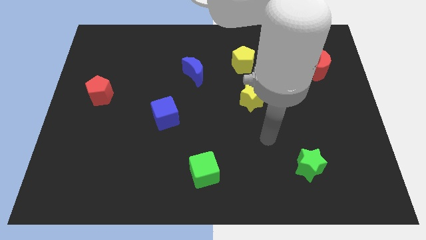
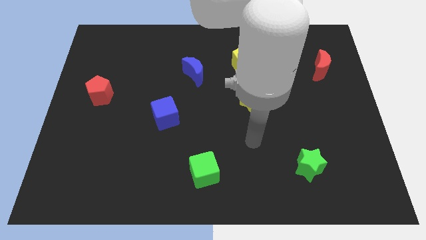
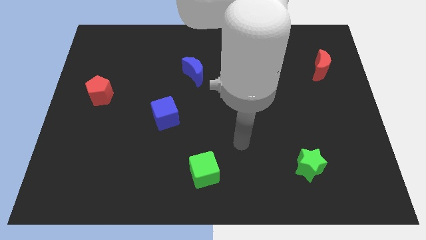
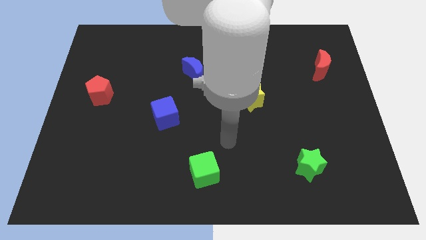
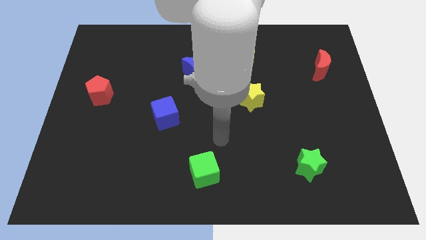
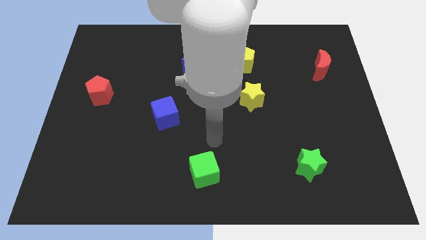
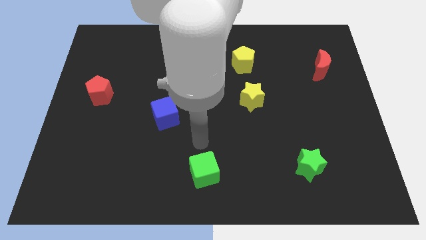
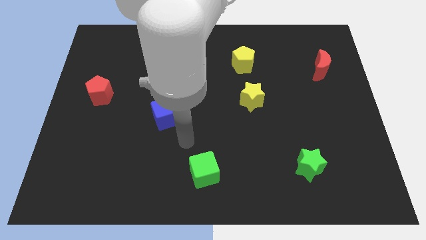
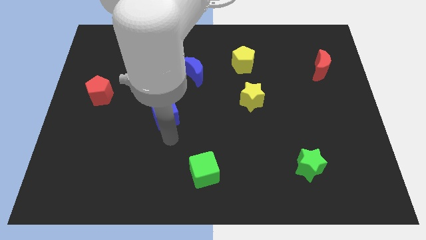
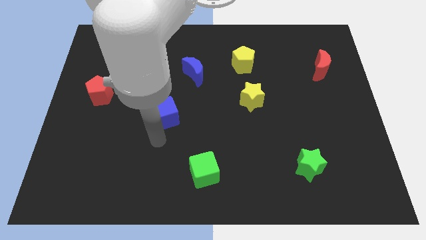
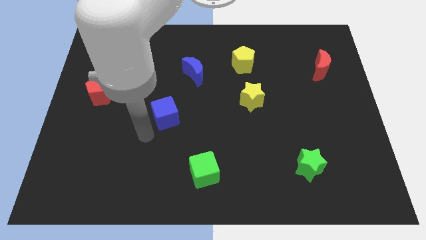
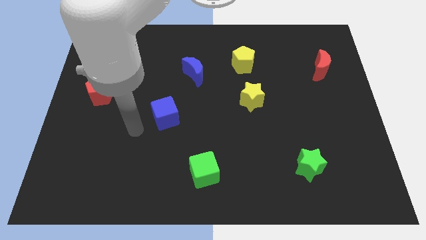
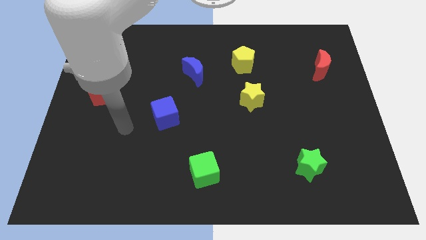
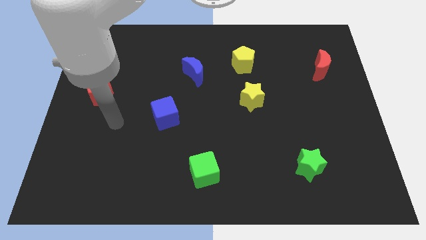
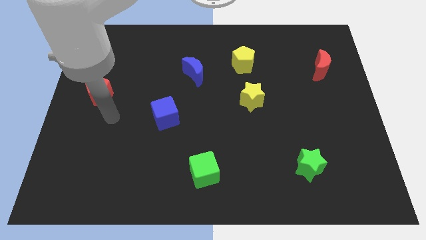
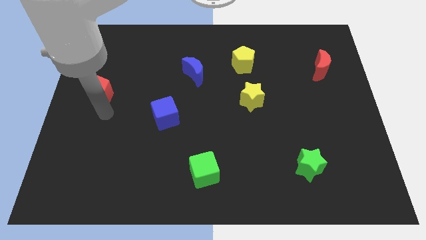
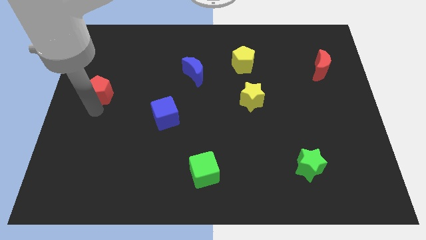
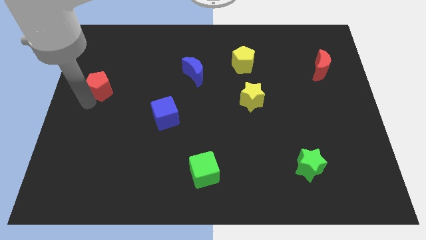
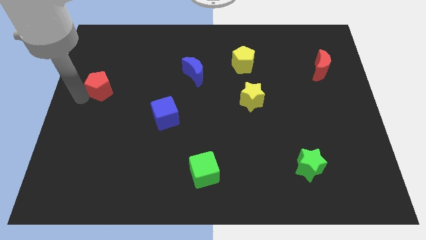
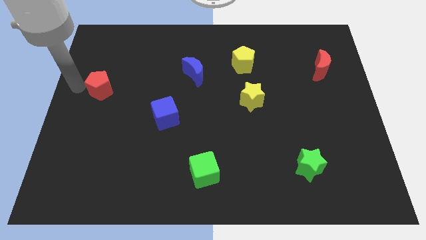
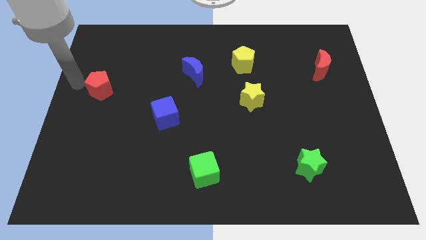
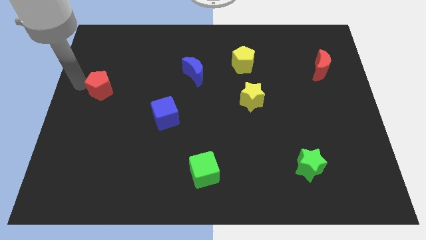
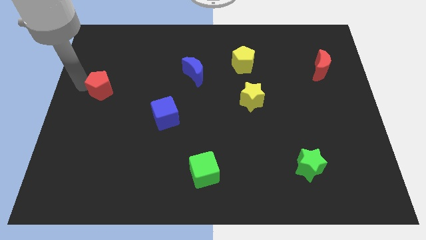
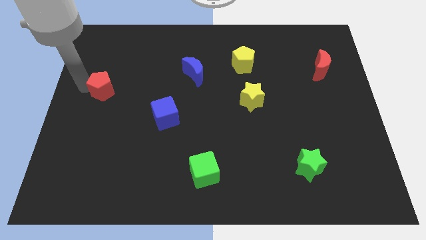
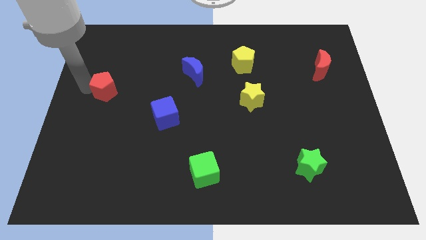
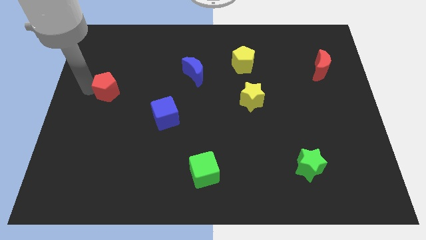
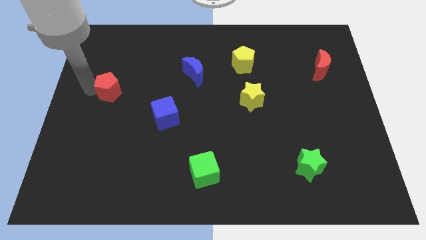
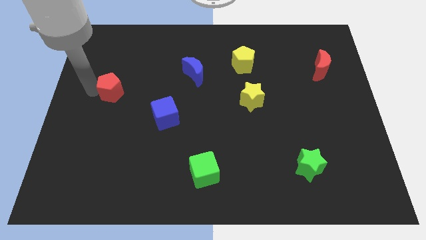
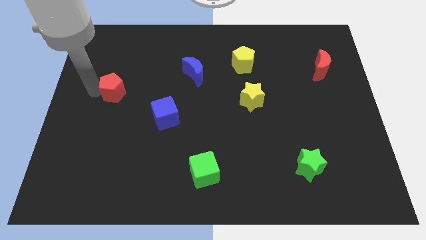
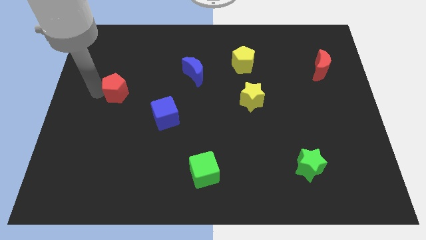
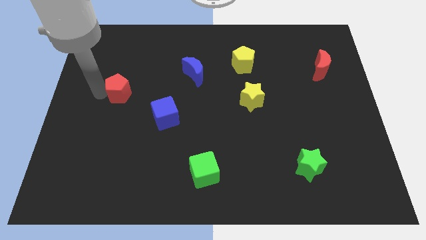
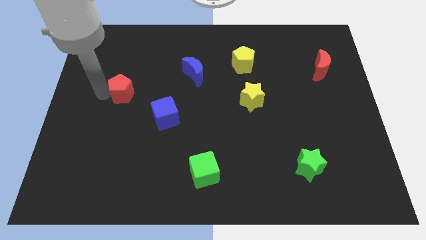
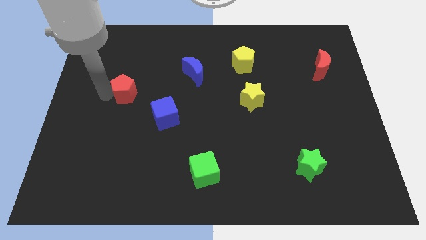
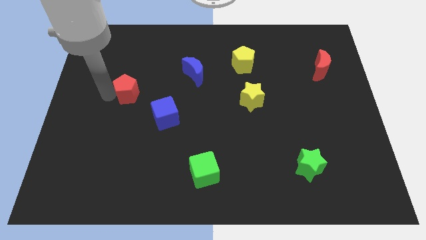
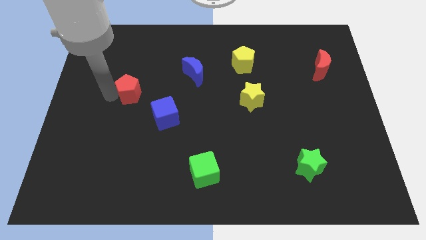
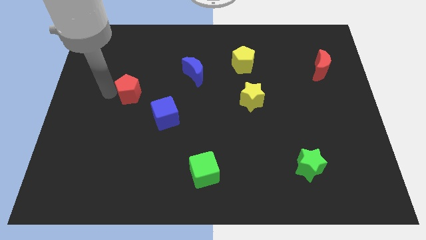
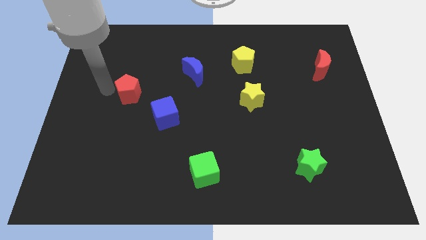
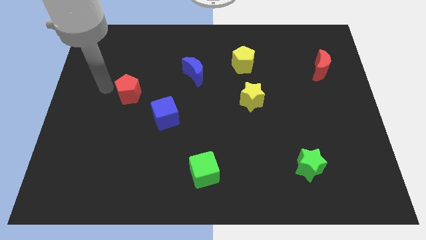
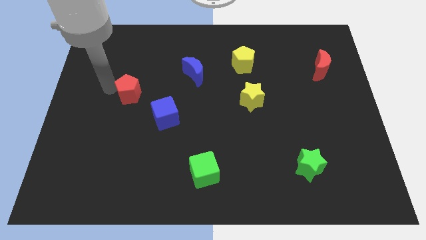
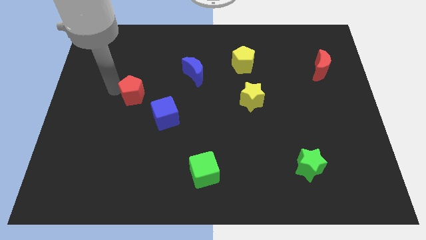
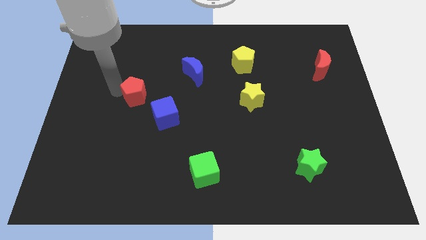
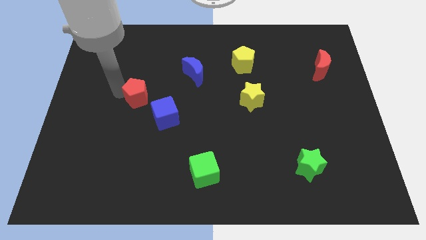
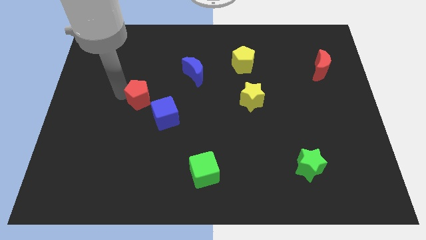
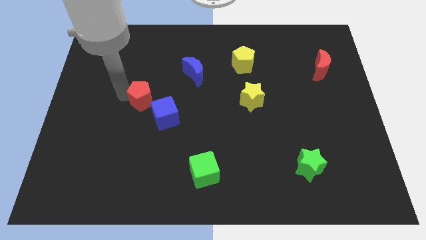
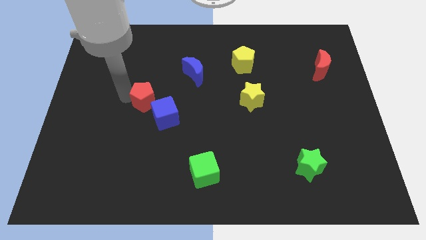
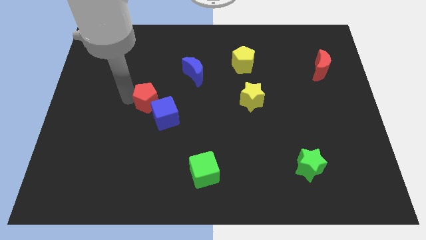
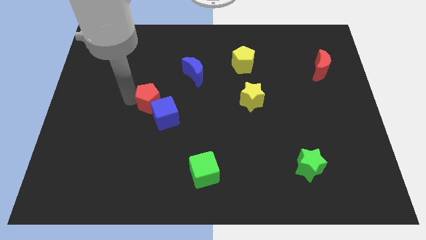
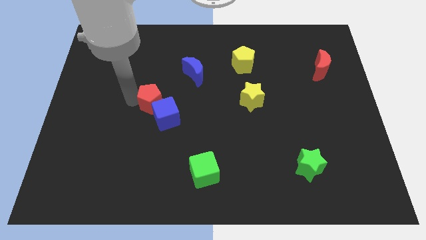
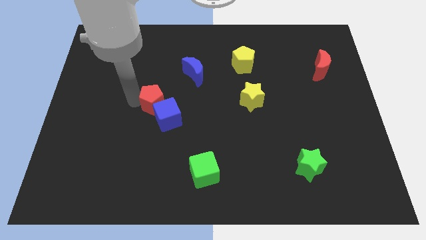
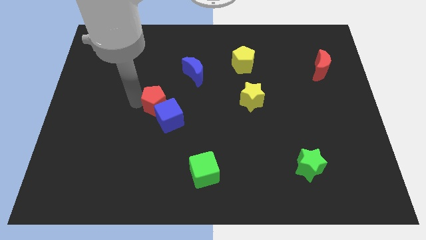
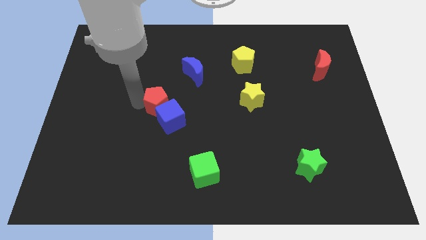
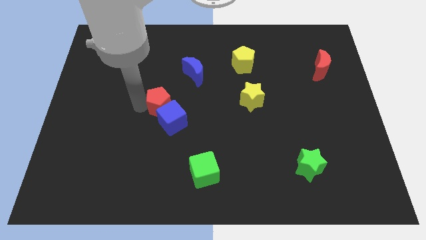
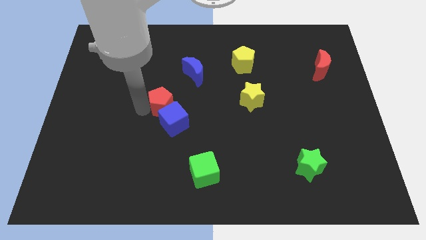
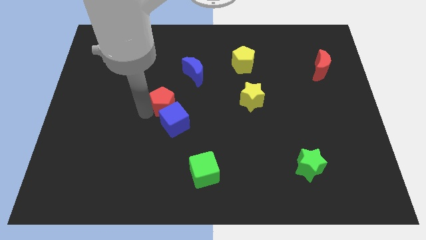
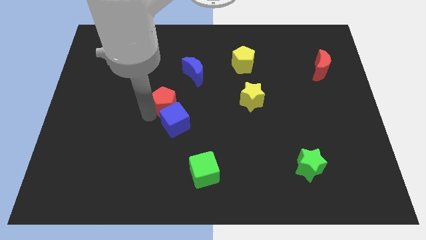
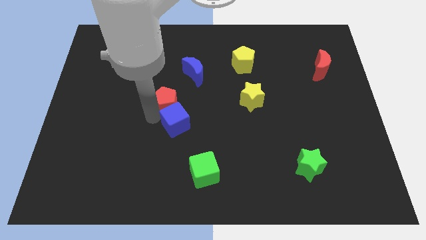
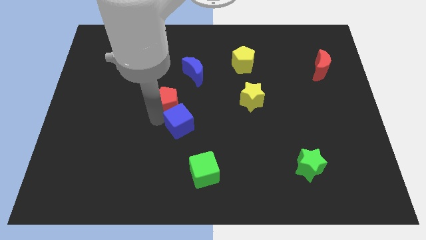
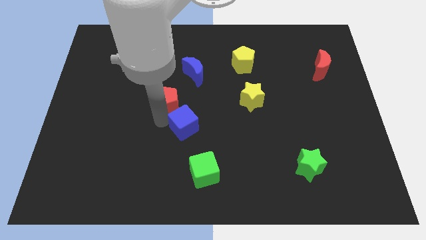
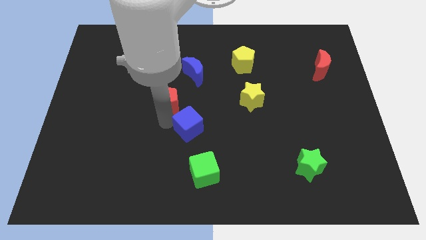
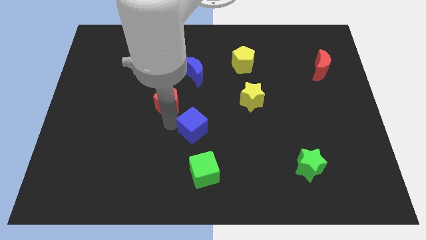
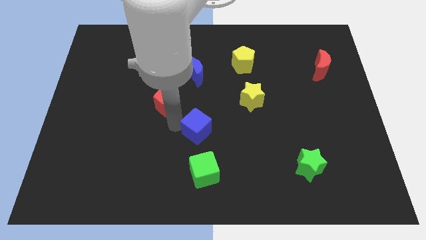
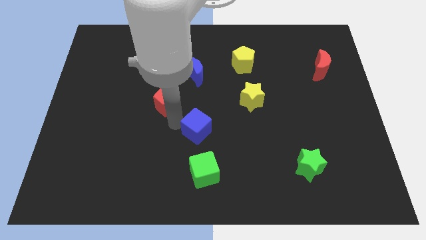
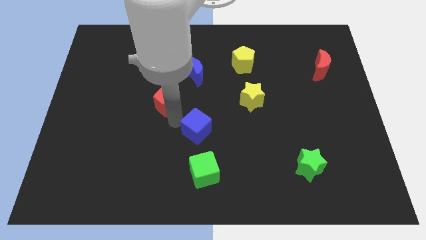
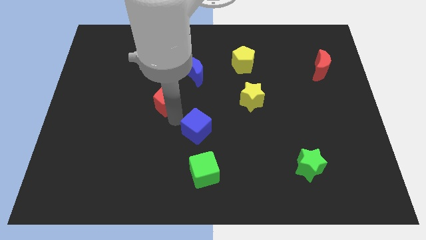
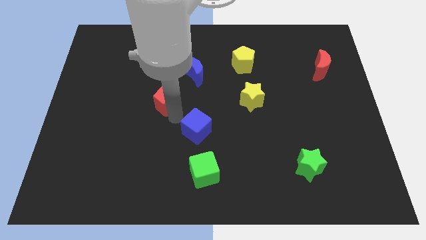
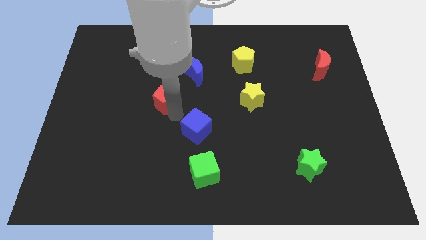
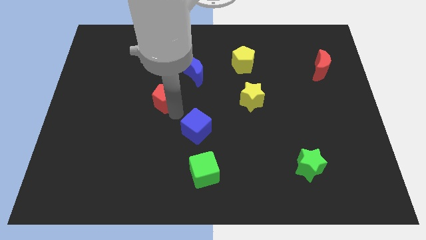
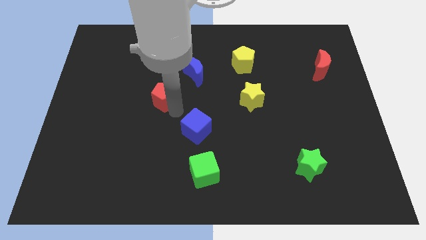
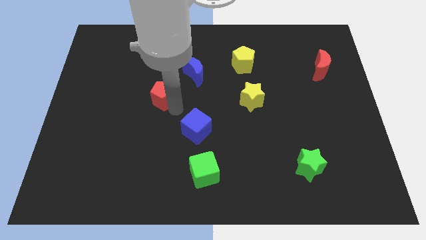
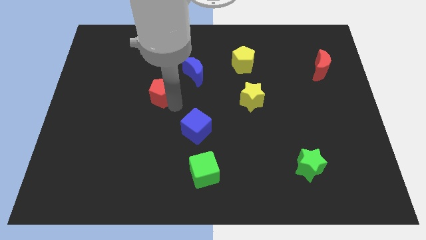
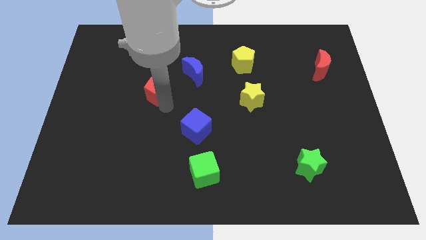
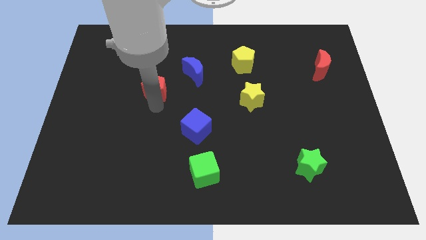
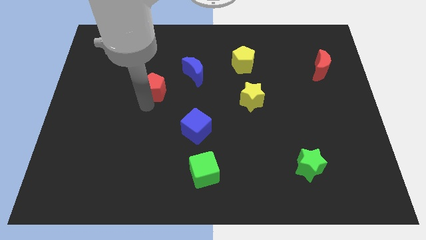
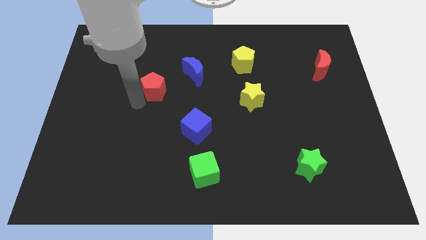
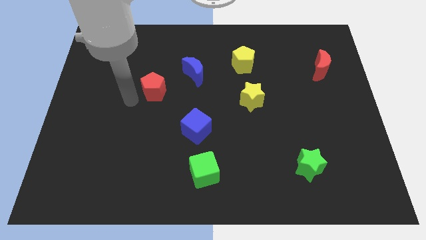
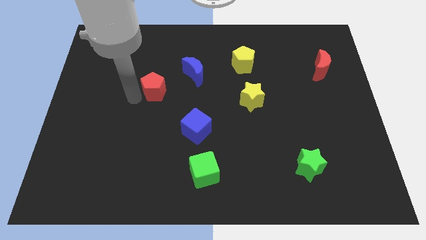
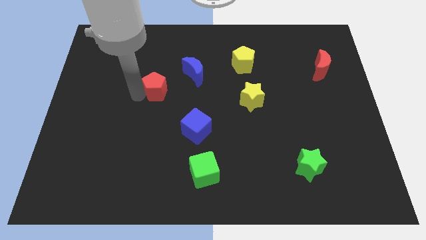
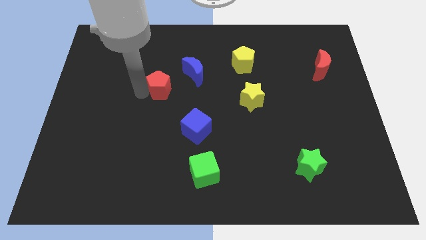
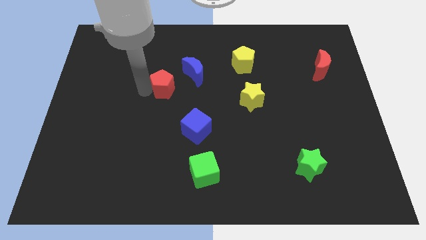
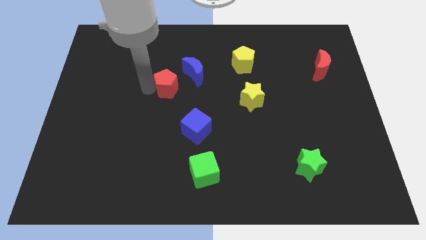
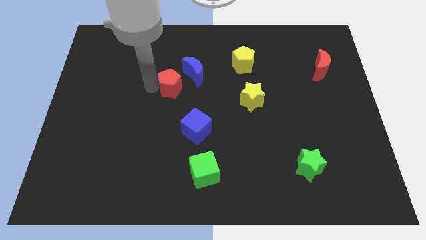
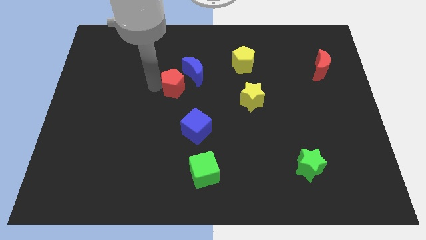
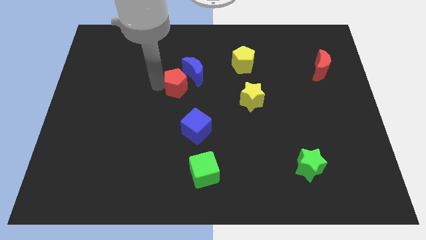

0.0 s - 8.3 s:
put the red pentagon to the blue moon
